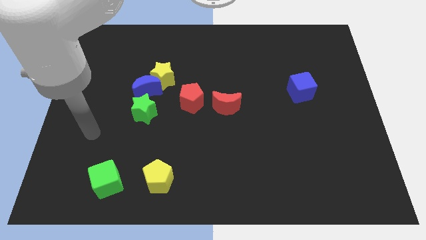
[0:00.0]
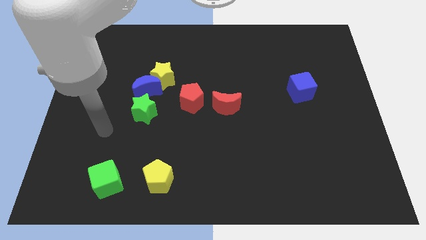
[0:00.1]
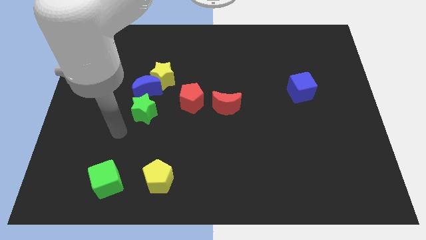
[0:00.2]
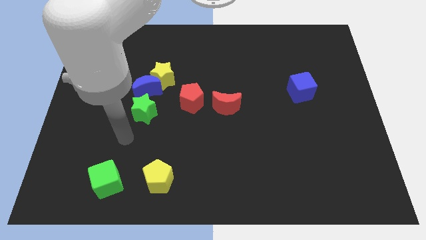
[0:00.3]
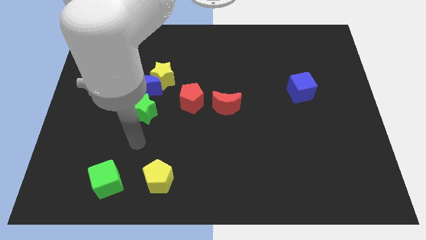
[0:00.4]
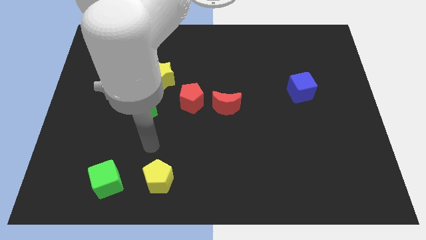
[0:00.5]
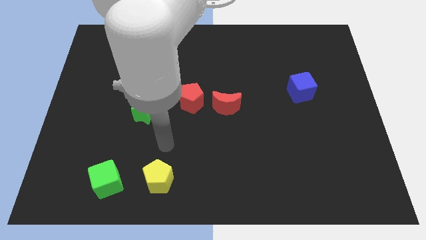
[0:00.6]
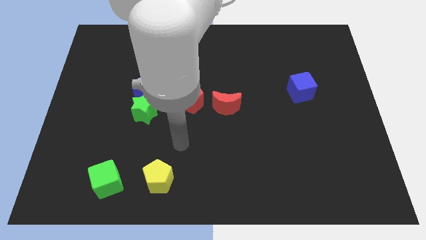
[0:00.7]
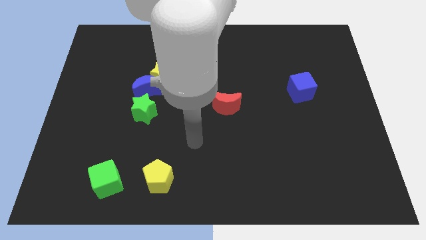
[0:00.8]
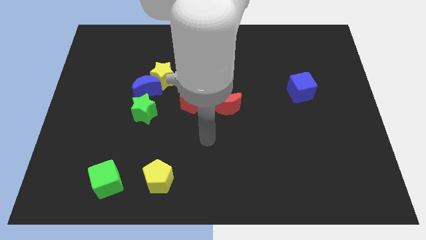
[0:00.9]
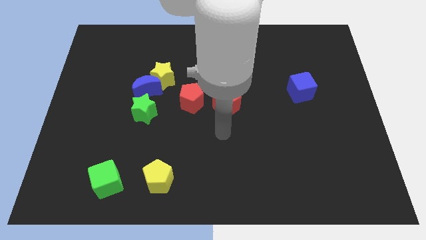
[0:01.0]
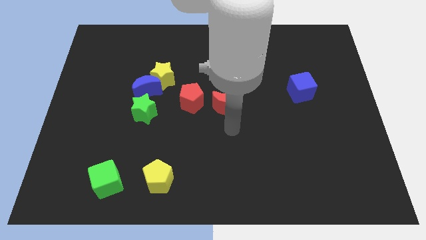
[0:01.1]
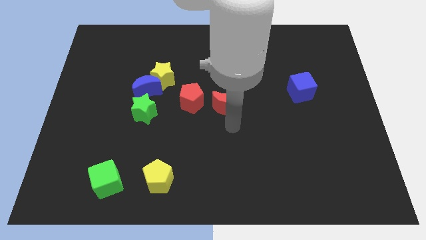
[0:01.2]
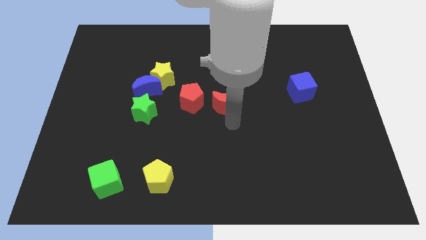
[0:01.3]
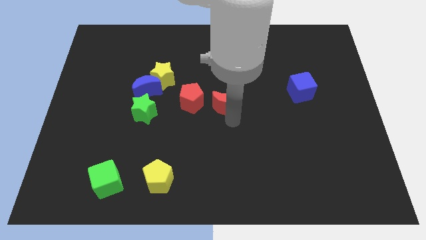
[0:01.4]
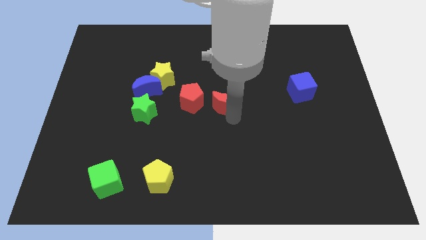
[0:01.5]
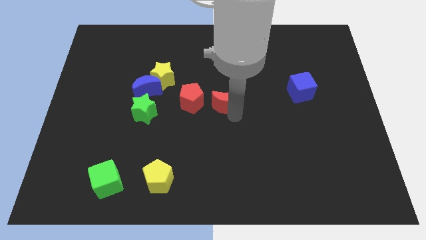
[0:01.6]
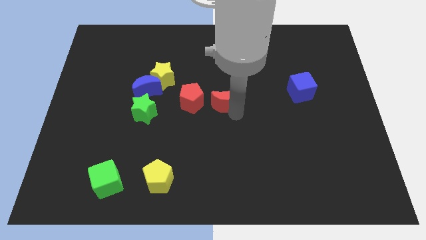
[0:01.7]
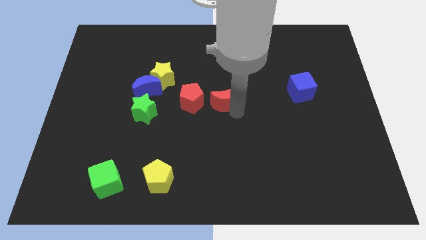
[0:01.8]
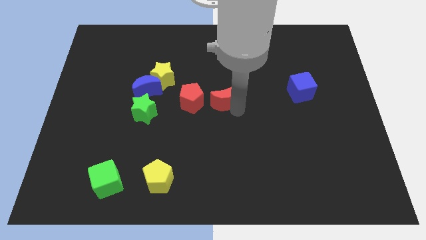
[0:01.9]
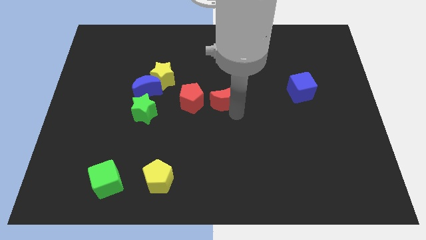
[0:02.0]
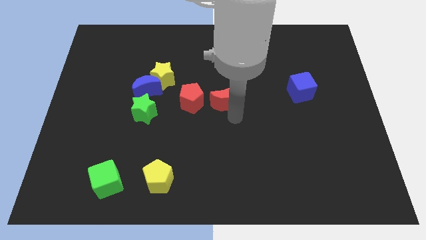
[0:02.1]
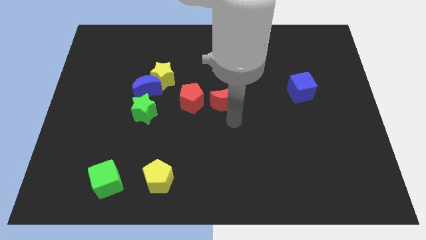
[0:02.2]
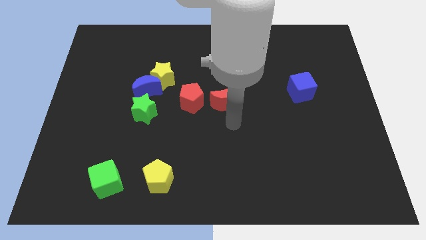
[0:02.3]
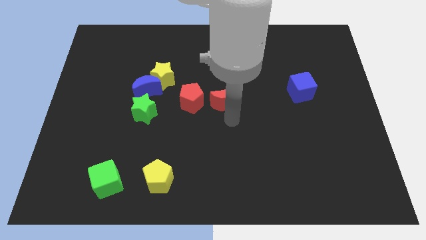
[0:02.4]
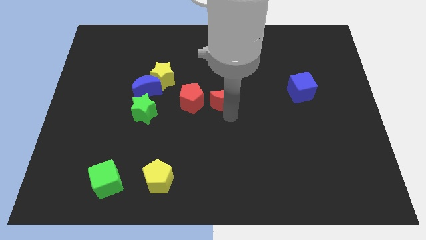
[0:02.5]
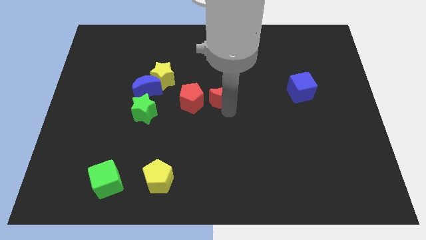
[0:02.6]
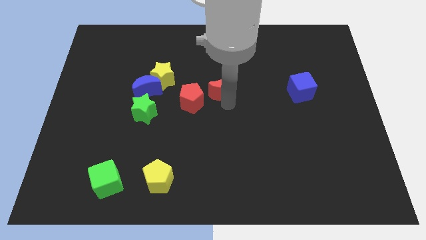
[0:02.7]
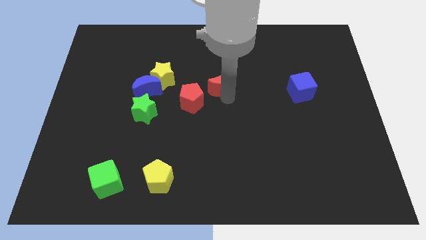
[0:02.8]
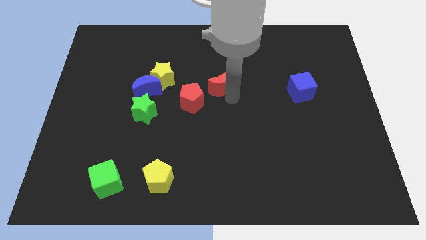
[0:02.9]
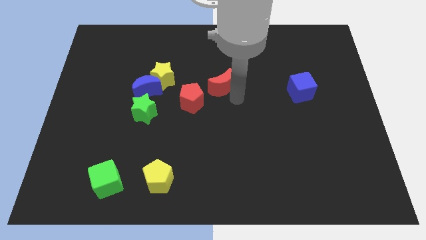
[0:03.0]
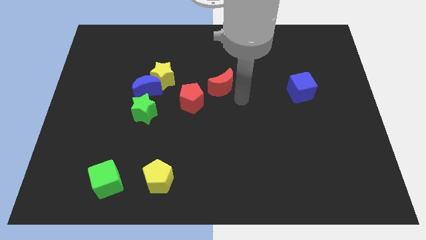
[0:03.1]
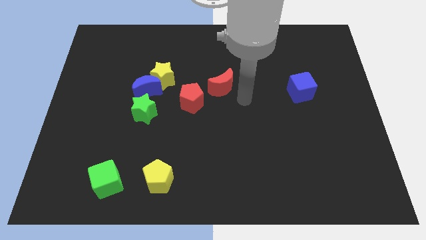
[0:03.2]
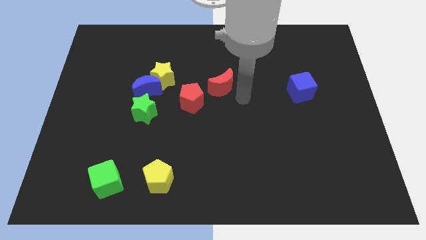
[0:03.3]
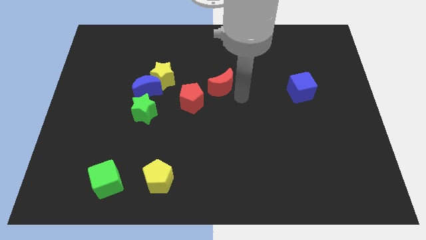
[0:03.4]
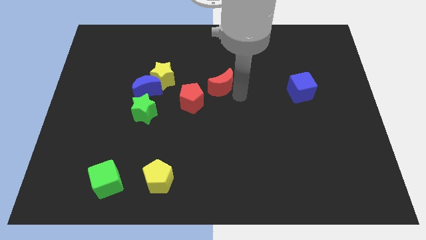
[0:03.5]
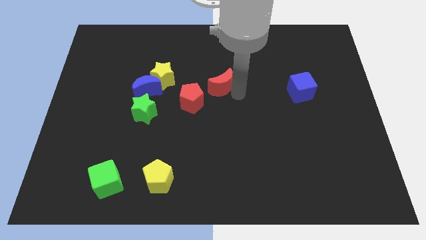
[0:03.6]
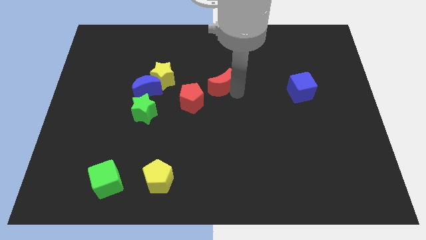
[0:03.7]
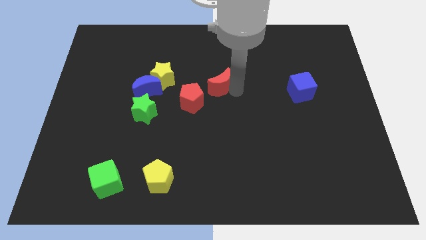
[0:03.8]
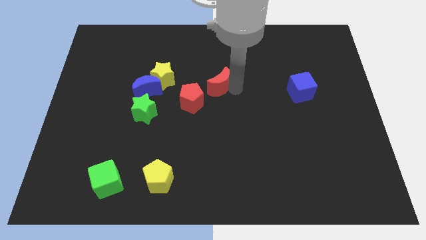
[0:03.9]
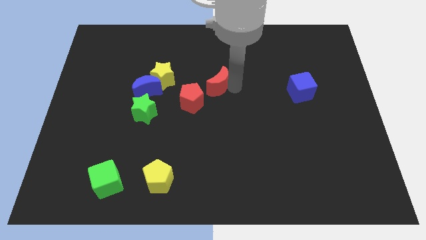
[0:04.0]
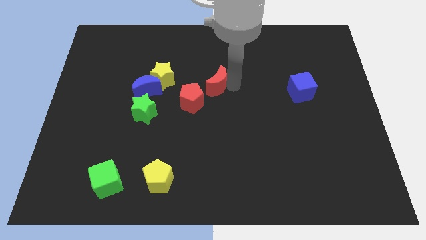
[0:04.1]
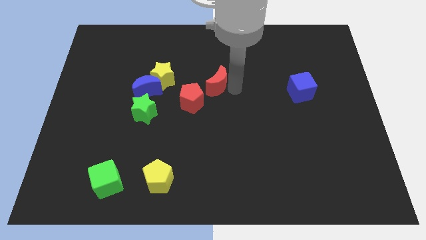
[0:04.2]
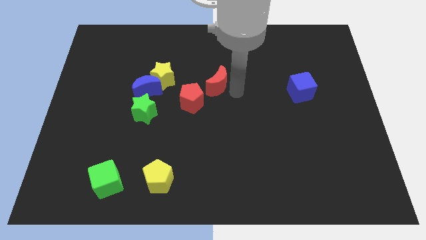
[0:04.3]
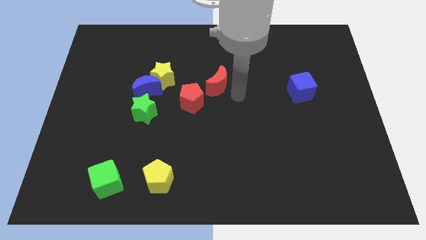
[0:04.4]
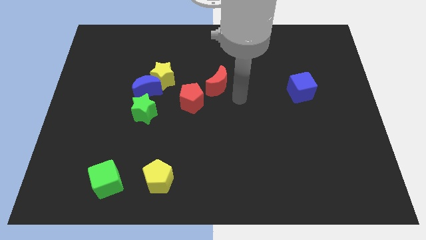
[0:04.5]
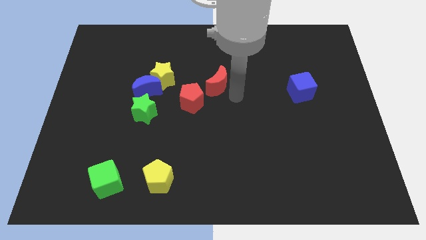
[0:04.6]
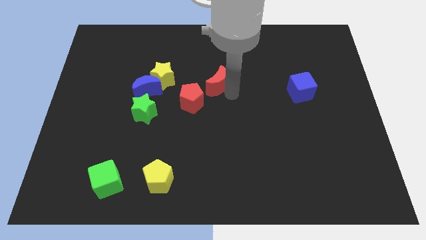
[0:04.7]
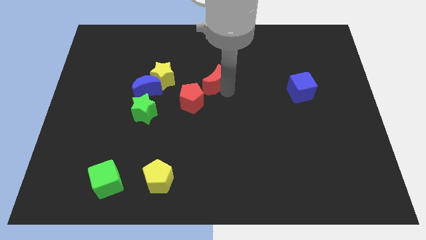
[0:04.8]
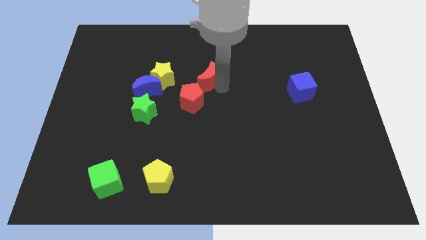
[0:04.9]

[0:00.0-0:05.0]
slightly move the red moon up and to the left diagonally

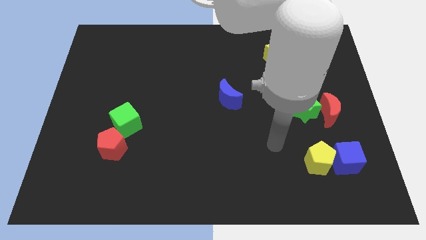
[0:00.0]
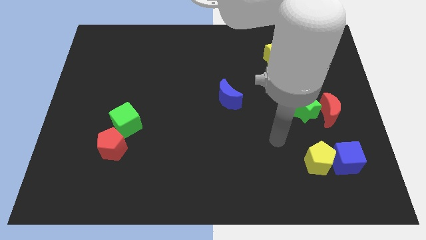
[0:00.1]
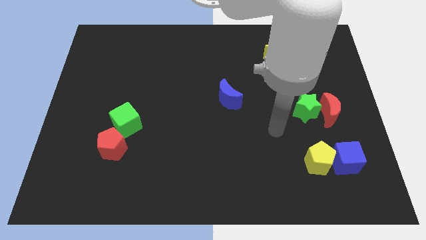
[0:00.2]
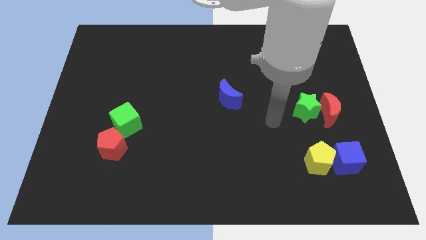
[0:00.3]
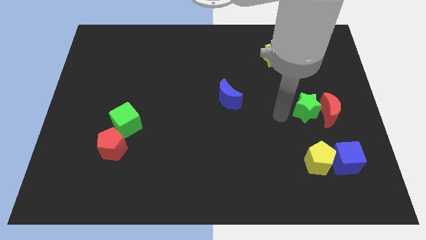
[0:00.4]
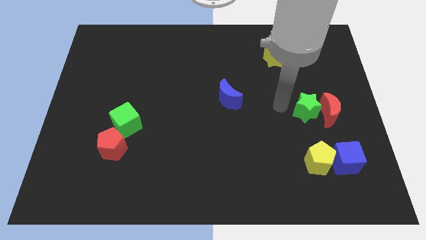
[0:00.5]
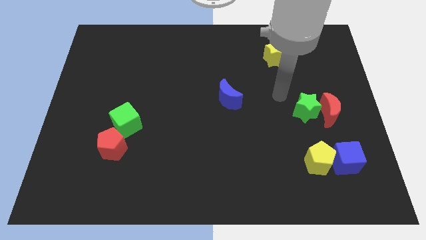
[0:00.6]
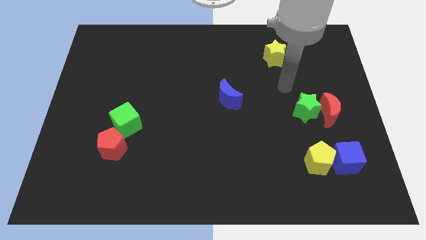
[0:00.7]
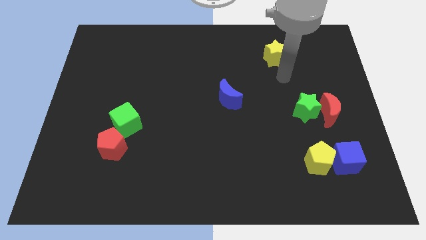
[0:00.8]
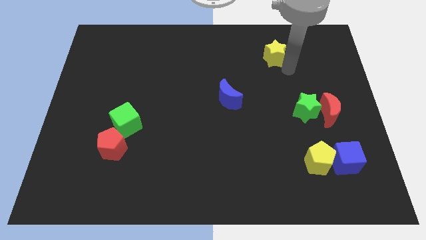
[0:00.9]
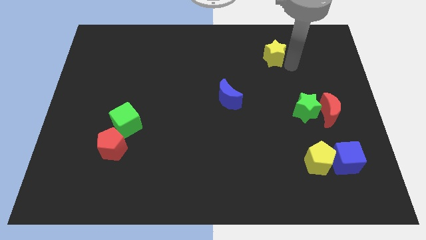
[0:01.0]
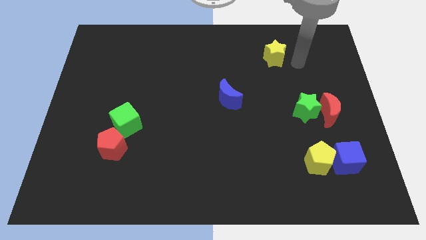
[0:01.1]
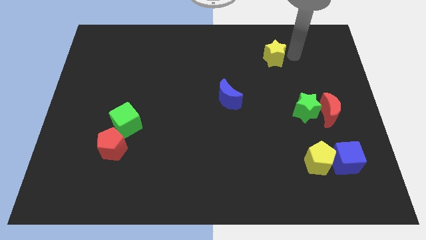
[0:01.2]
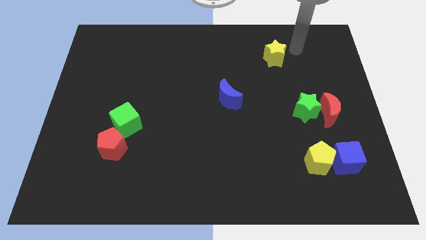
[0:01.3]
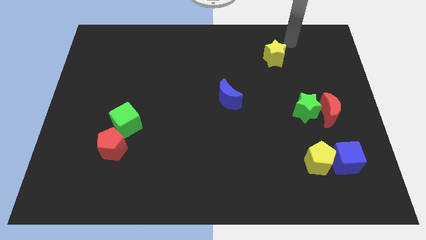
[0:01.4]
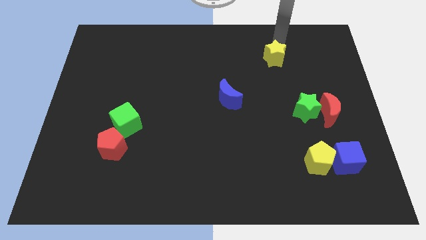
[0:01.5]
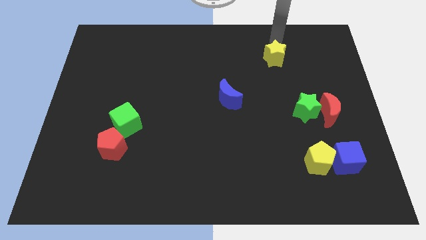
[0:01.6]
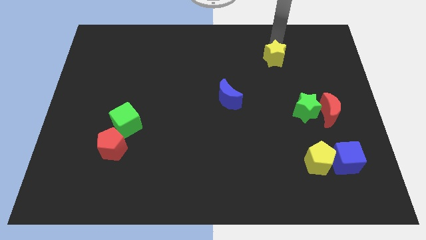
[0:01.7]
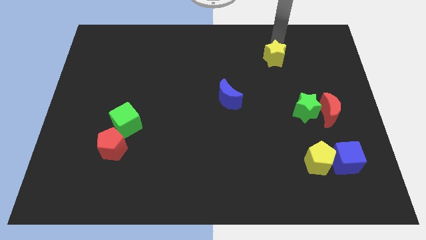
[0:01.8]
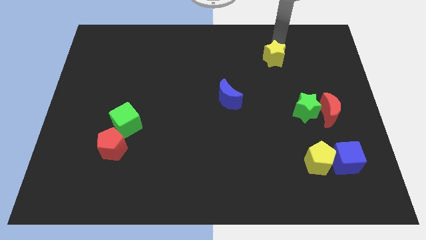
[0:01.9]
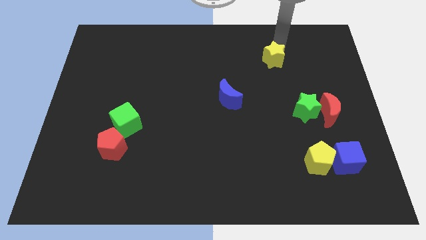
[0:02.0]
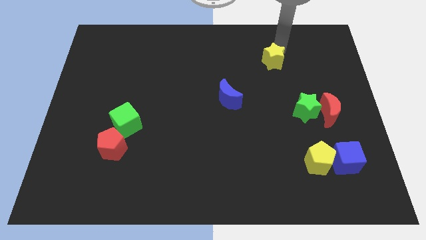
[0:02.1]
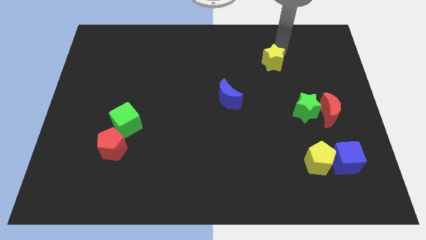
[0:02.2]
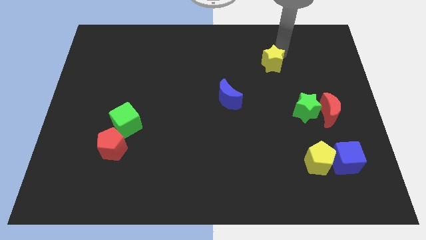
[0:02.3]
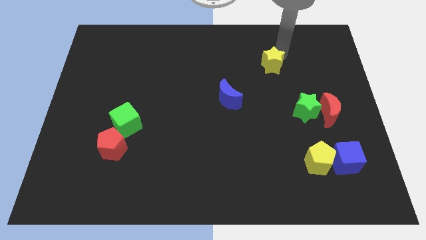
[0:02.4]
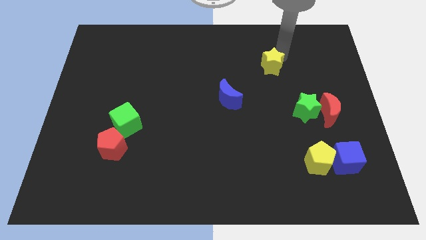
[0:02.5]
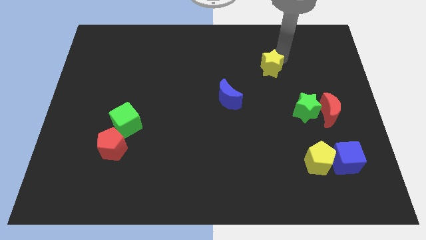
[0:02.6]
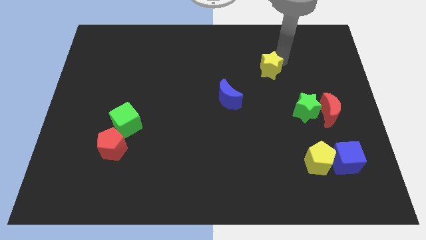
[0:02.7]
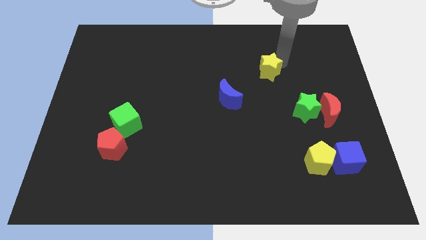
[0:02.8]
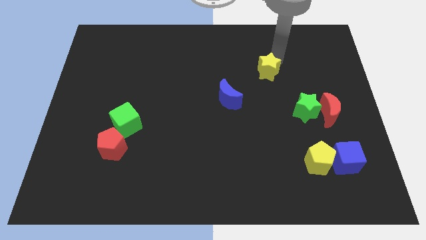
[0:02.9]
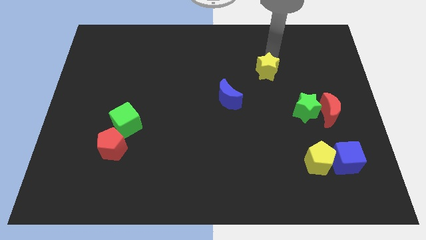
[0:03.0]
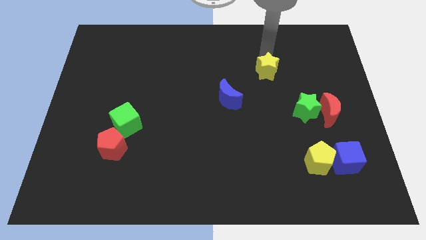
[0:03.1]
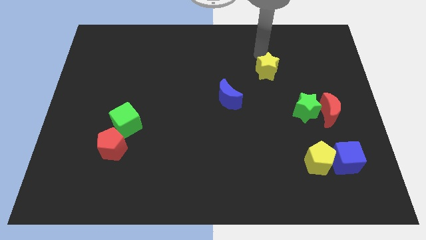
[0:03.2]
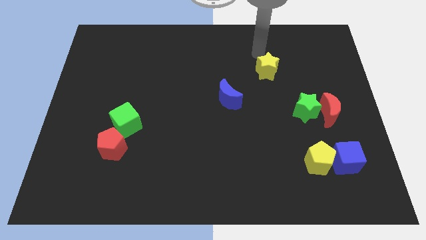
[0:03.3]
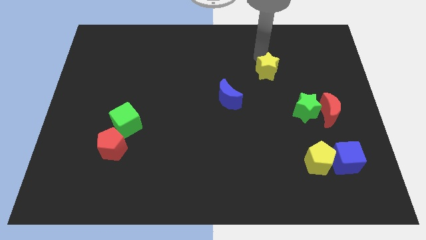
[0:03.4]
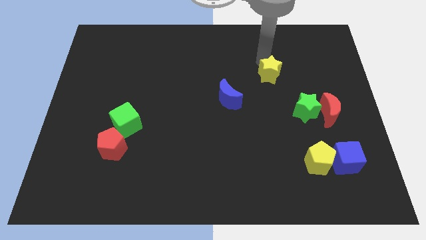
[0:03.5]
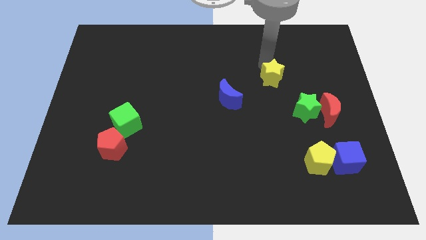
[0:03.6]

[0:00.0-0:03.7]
slightly move the yellow star downwards
